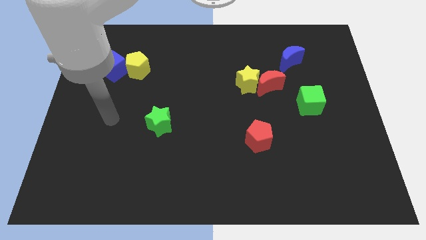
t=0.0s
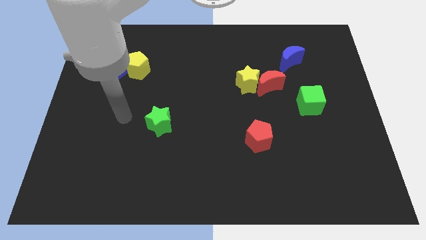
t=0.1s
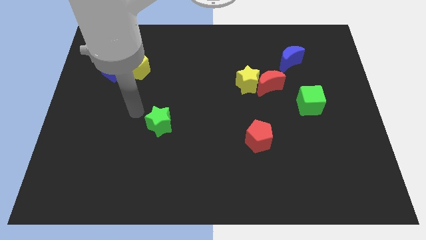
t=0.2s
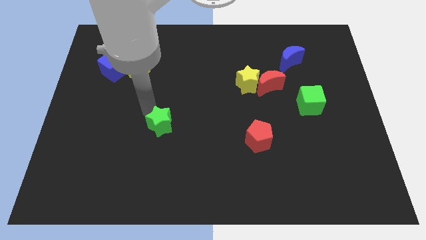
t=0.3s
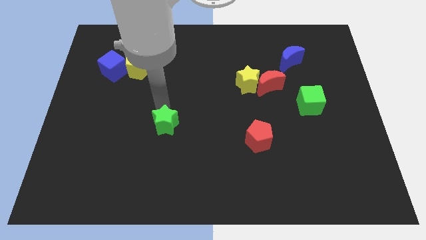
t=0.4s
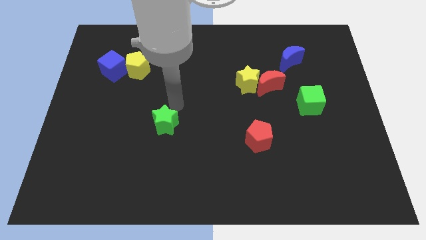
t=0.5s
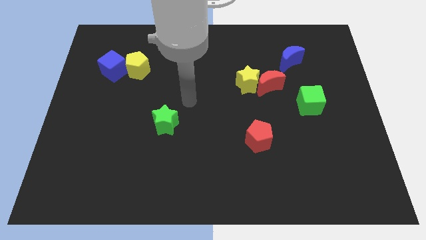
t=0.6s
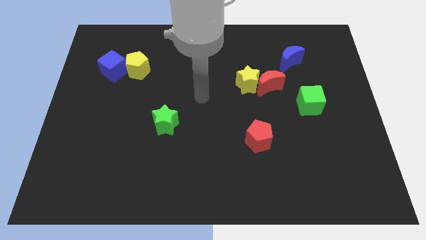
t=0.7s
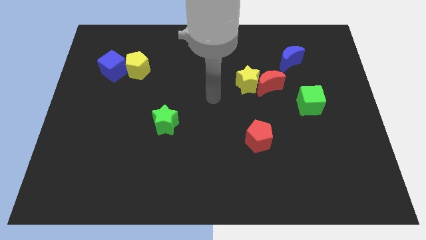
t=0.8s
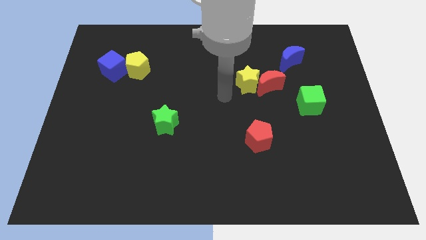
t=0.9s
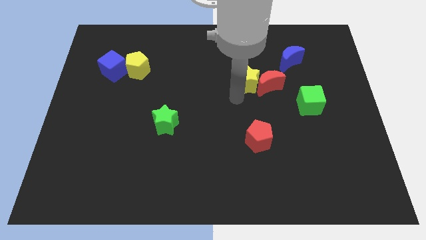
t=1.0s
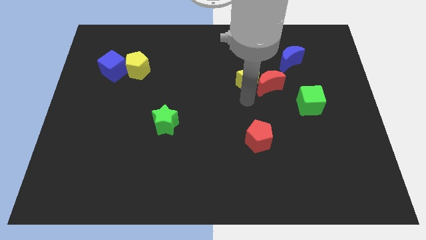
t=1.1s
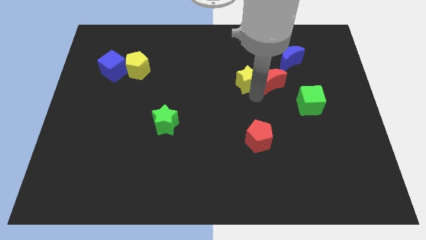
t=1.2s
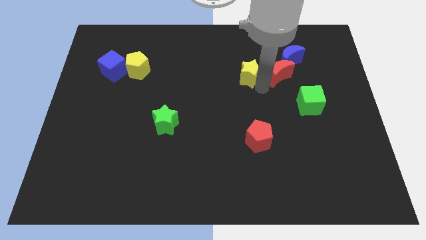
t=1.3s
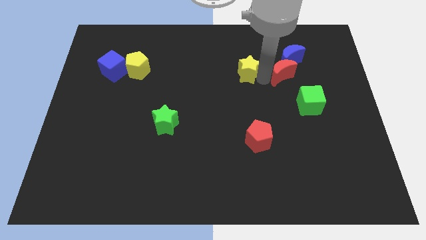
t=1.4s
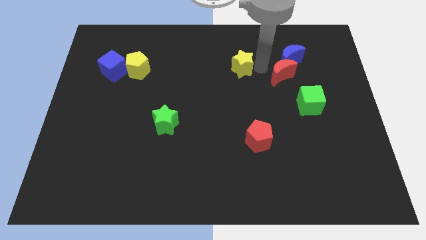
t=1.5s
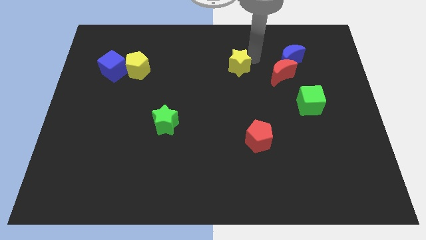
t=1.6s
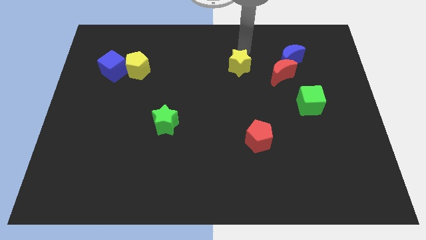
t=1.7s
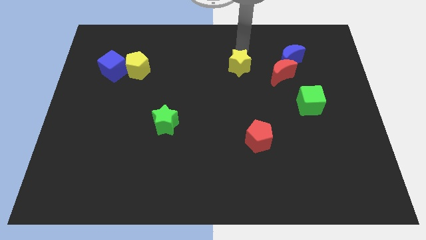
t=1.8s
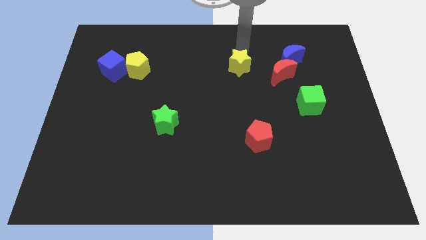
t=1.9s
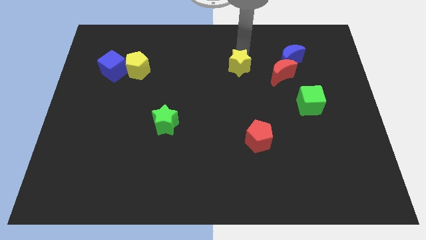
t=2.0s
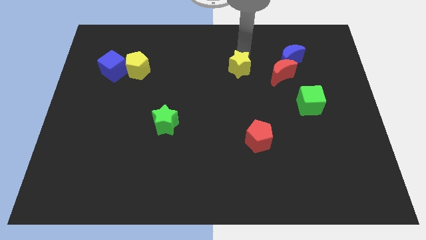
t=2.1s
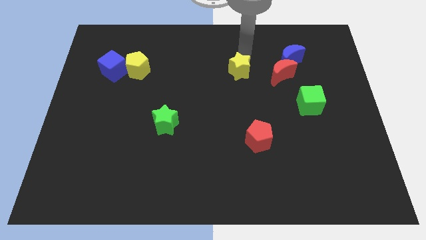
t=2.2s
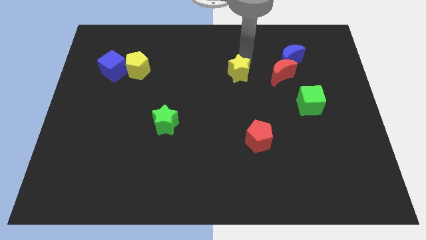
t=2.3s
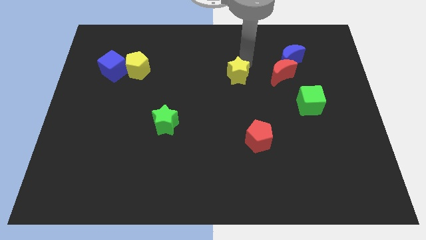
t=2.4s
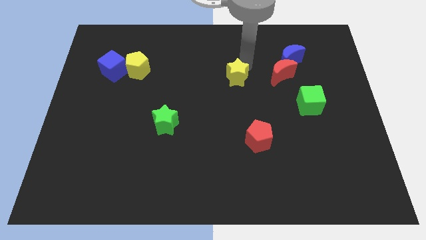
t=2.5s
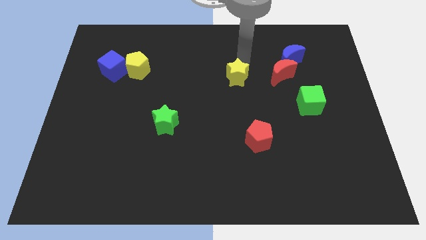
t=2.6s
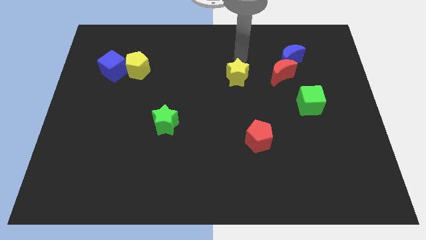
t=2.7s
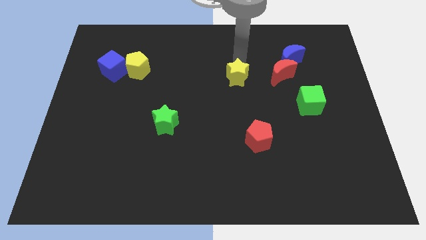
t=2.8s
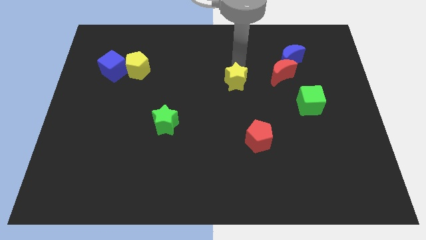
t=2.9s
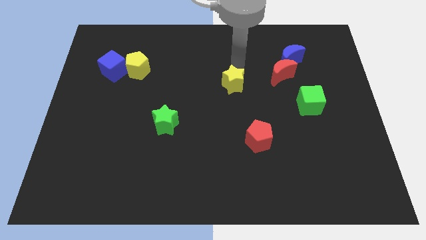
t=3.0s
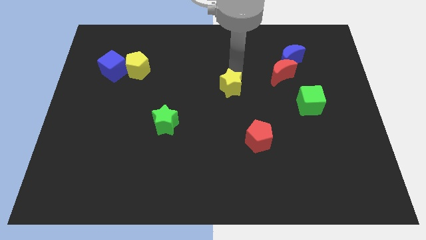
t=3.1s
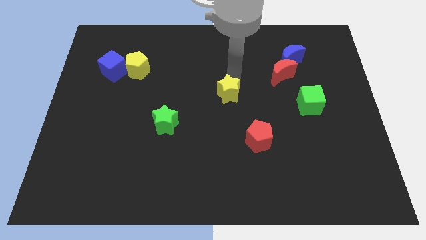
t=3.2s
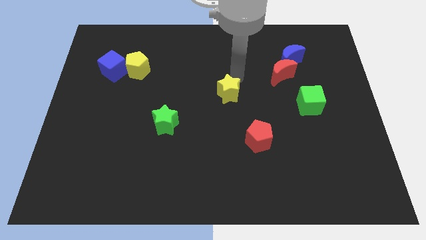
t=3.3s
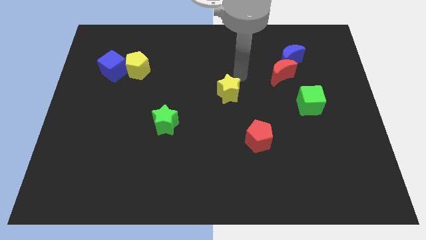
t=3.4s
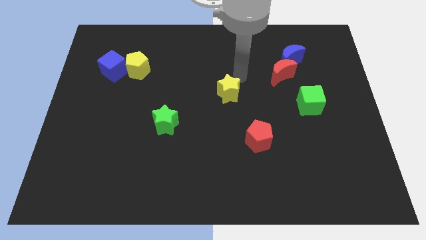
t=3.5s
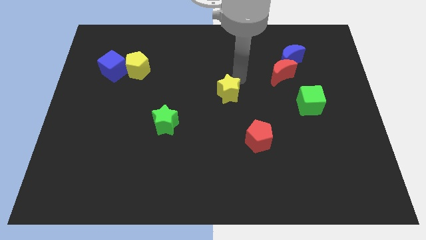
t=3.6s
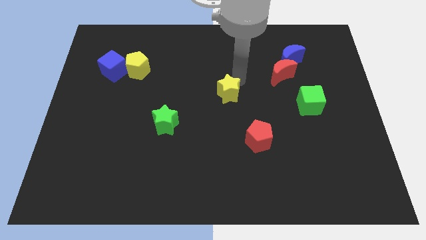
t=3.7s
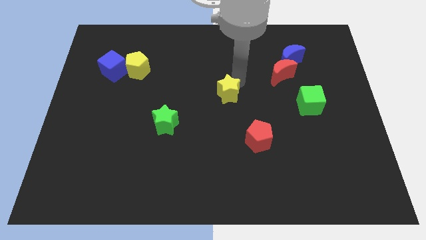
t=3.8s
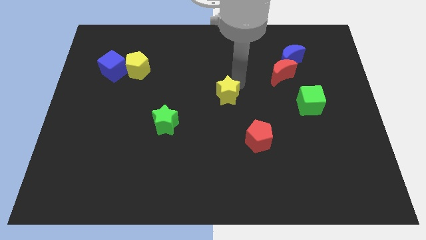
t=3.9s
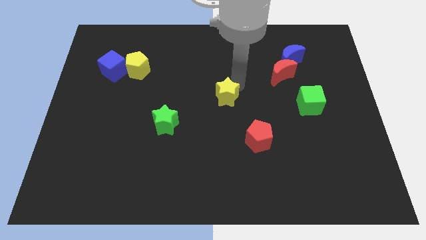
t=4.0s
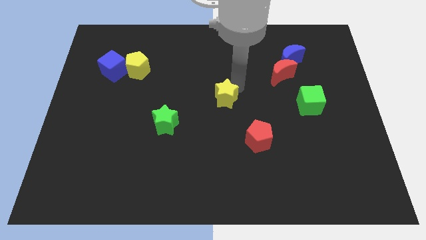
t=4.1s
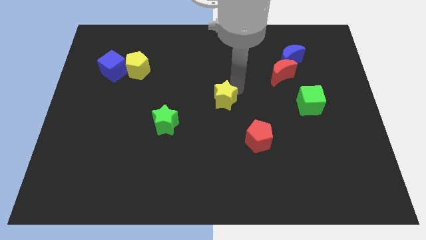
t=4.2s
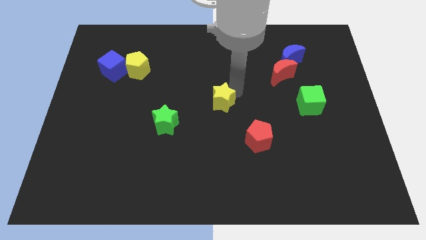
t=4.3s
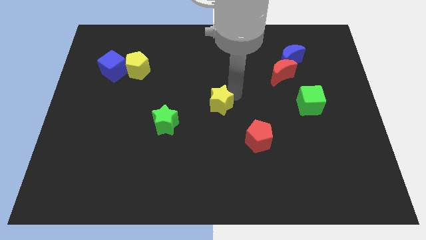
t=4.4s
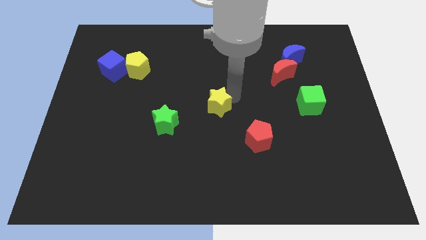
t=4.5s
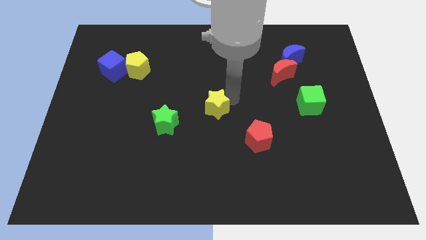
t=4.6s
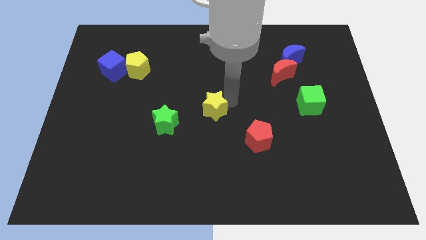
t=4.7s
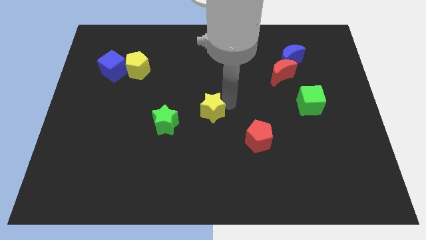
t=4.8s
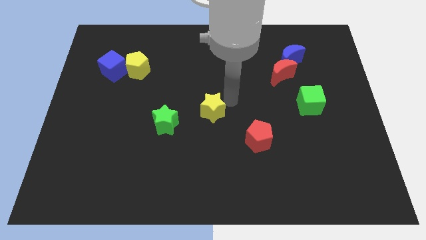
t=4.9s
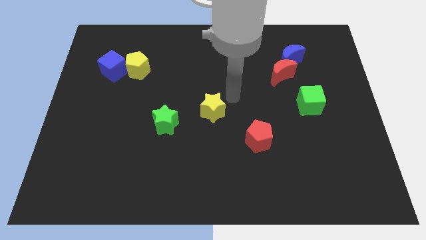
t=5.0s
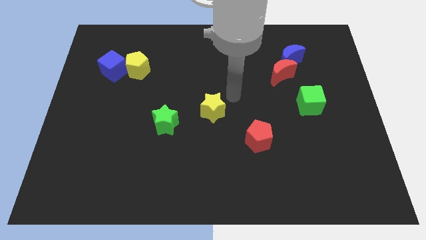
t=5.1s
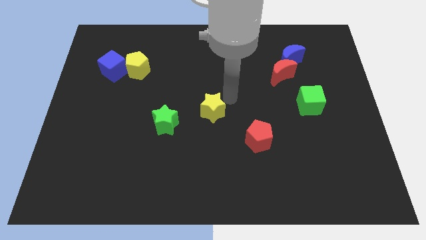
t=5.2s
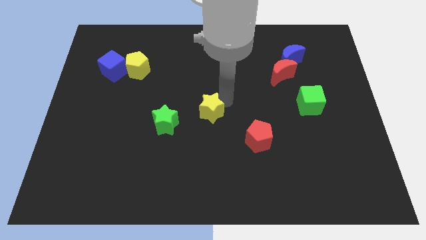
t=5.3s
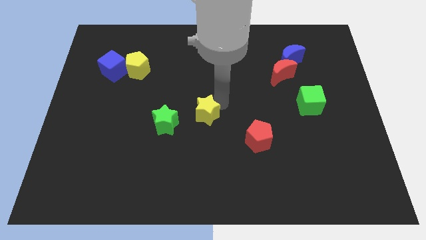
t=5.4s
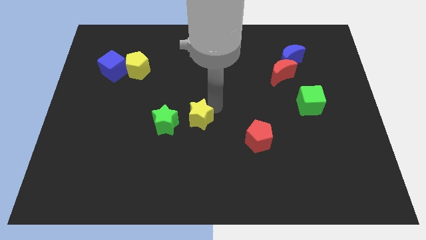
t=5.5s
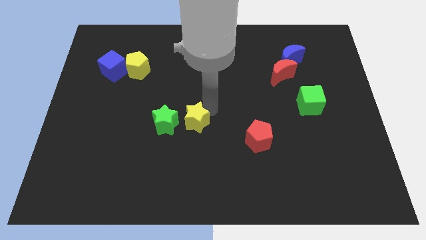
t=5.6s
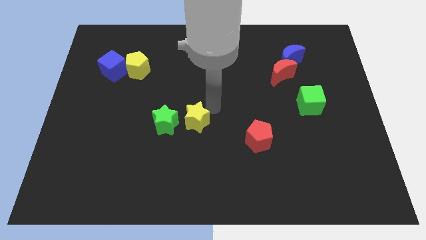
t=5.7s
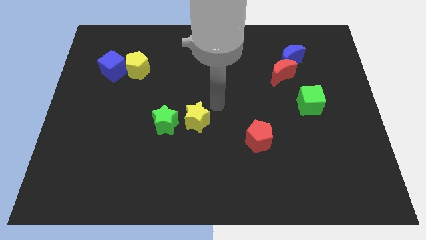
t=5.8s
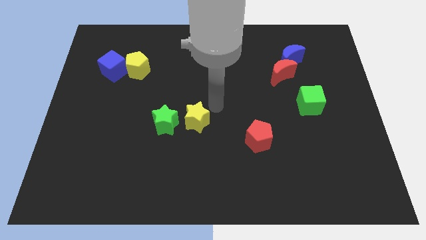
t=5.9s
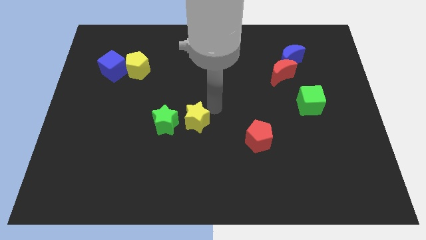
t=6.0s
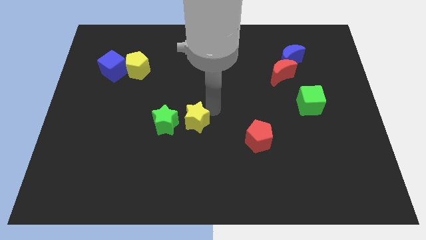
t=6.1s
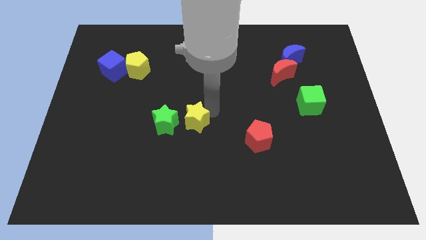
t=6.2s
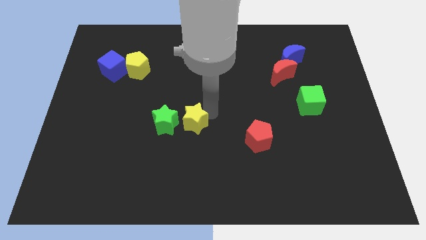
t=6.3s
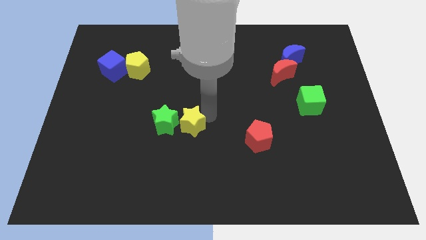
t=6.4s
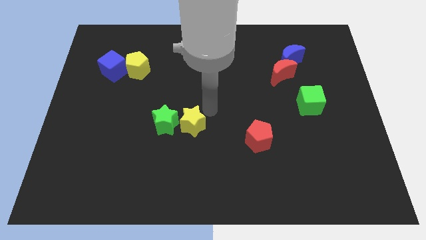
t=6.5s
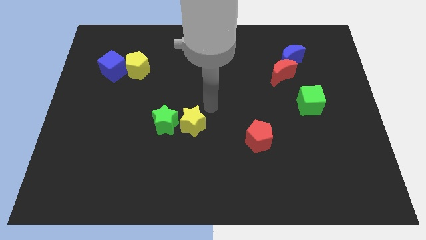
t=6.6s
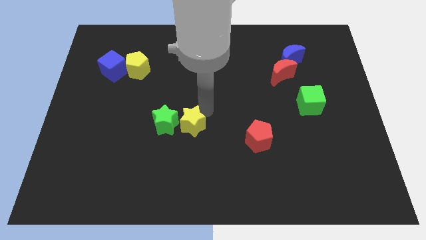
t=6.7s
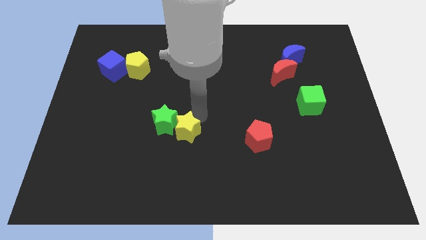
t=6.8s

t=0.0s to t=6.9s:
push the yellow star diagonally downwards and to the left

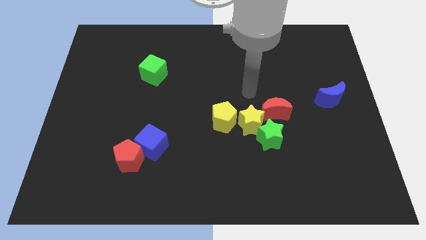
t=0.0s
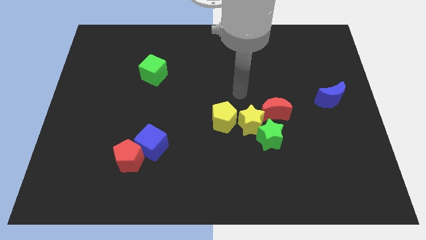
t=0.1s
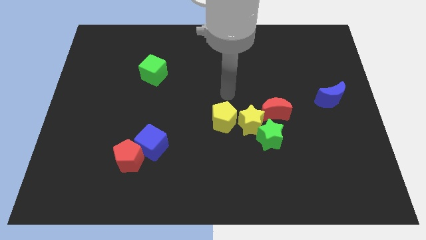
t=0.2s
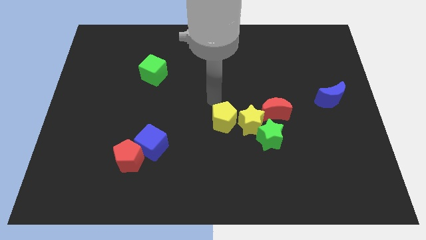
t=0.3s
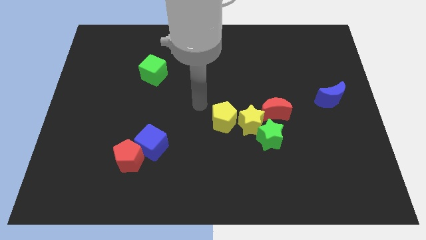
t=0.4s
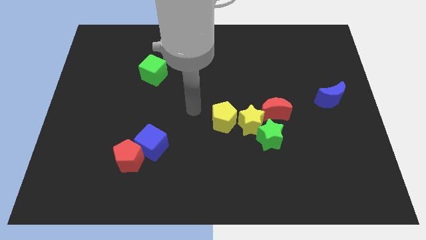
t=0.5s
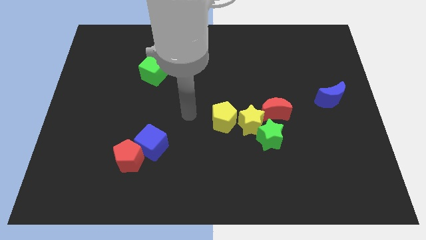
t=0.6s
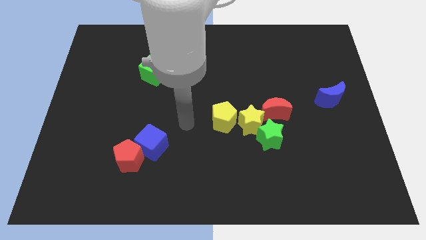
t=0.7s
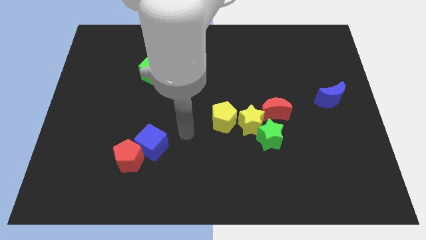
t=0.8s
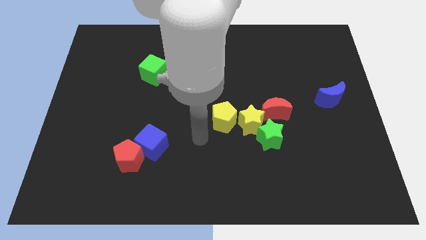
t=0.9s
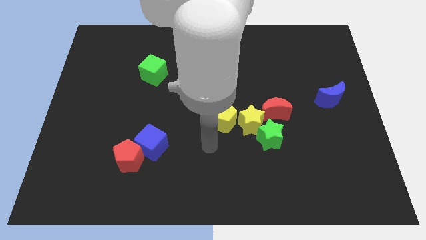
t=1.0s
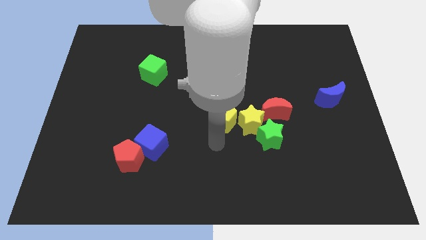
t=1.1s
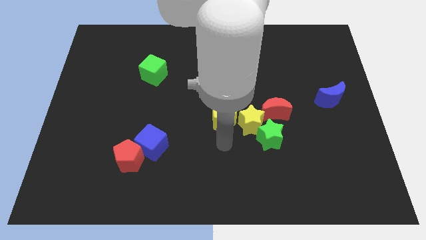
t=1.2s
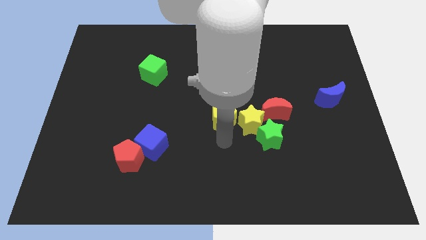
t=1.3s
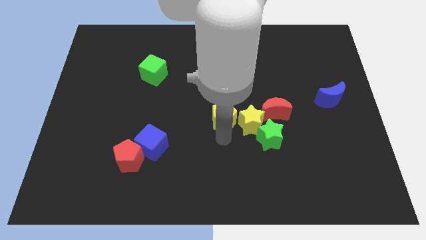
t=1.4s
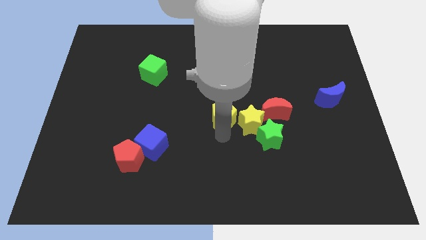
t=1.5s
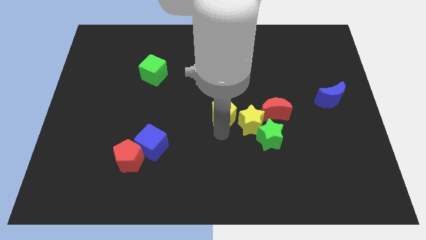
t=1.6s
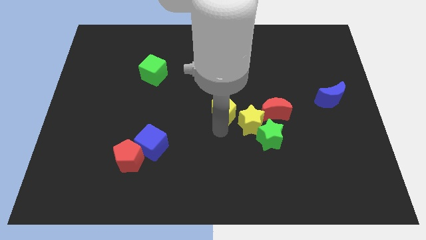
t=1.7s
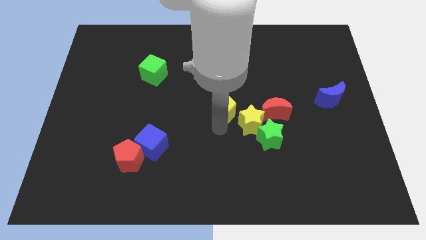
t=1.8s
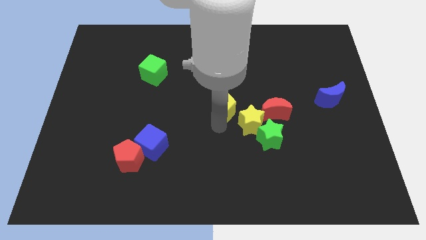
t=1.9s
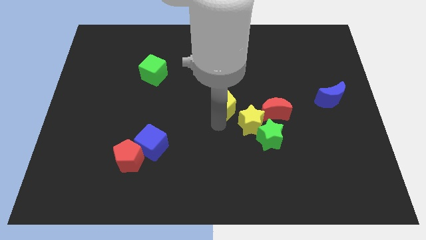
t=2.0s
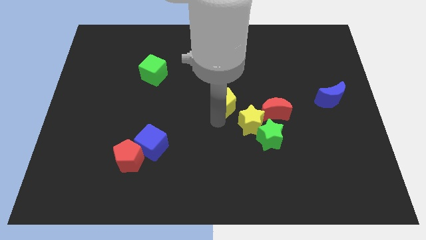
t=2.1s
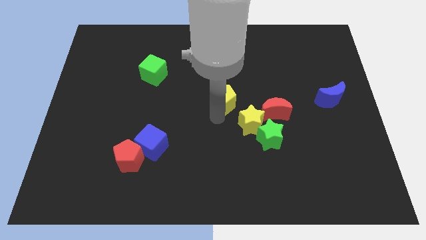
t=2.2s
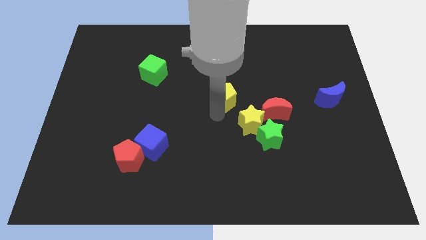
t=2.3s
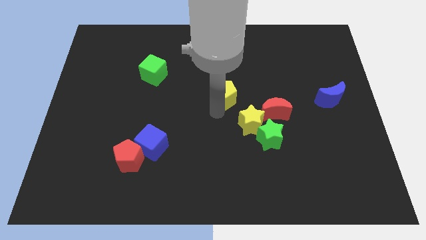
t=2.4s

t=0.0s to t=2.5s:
move the yellow pentagon upwards somewhat
